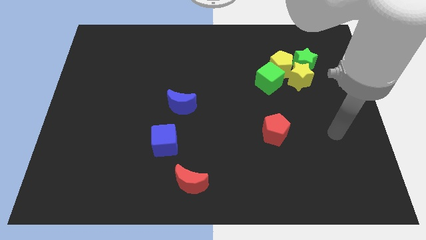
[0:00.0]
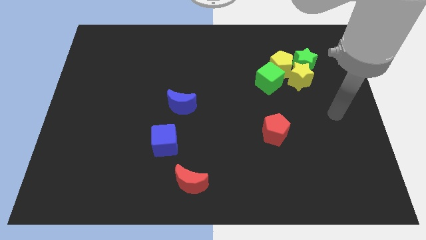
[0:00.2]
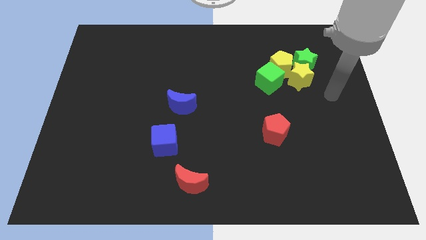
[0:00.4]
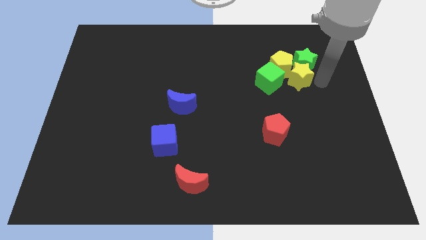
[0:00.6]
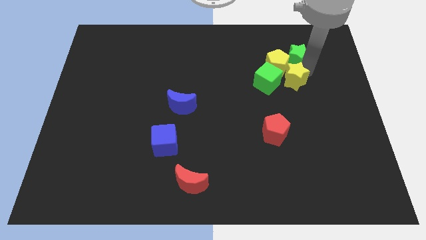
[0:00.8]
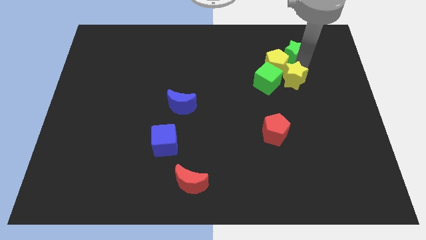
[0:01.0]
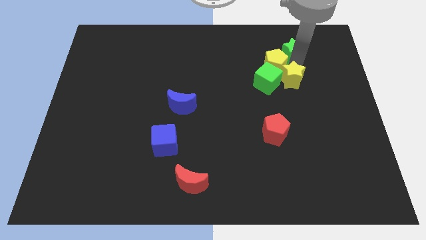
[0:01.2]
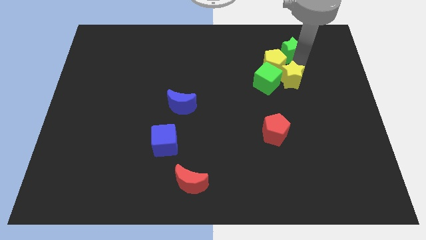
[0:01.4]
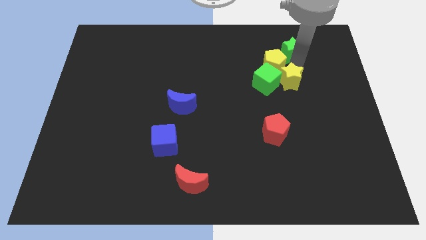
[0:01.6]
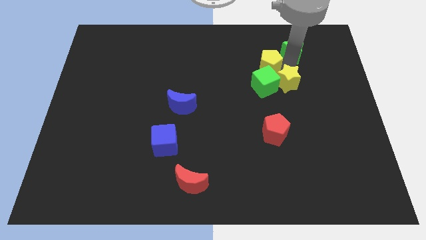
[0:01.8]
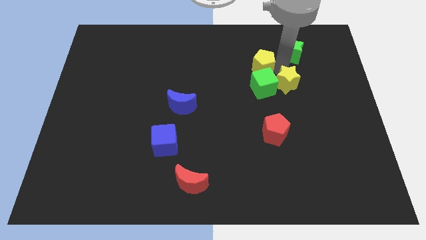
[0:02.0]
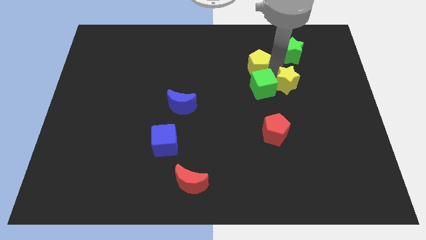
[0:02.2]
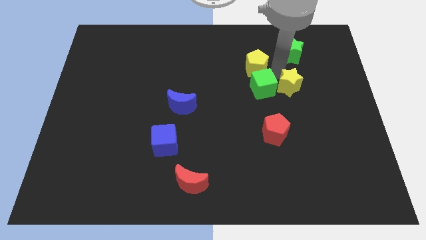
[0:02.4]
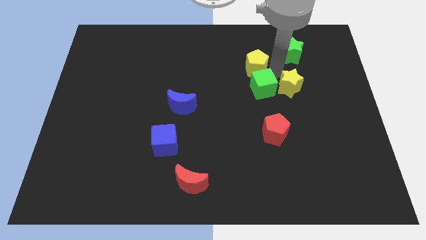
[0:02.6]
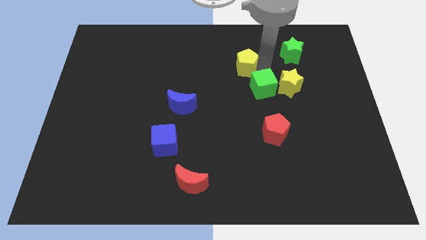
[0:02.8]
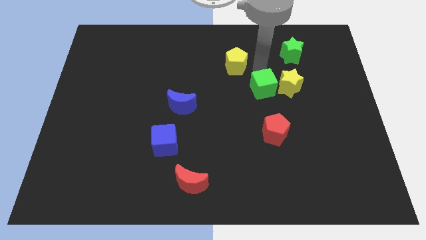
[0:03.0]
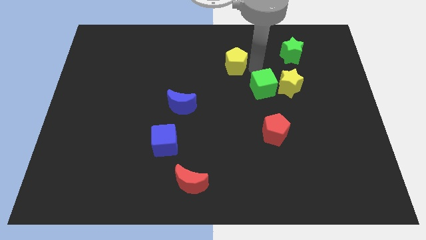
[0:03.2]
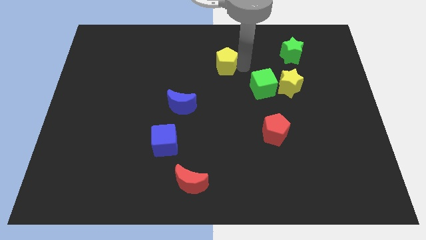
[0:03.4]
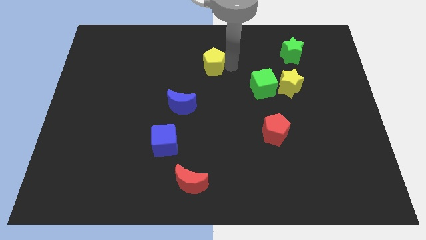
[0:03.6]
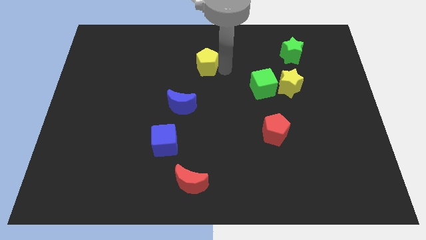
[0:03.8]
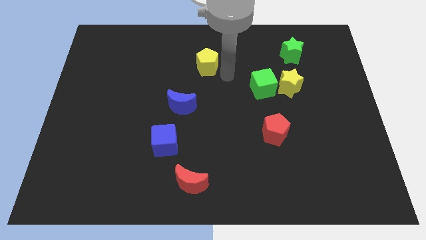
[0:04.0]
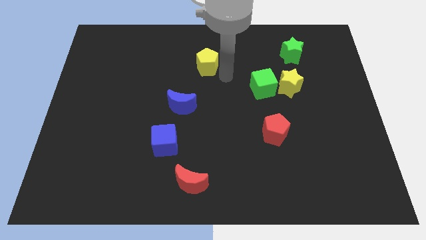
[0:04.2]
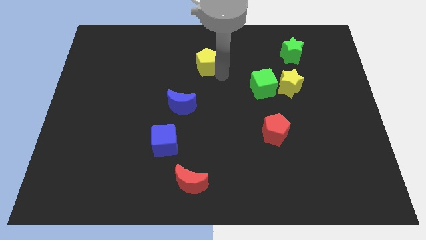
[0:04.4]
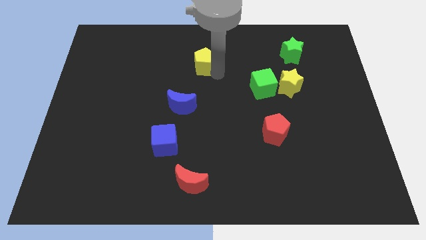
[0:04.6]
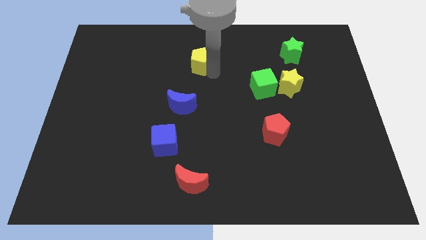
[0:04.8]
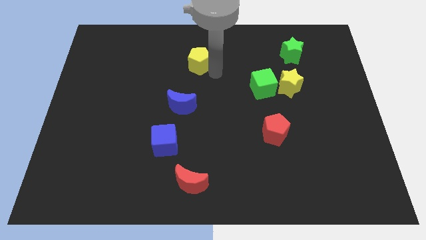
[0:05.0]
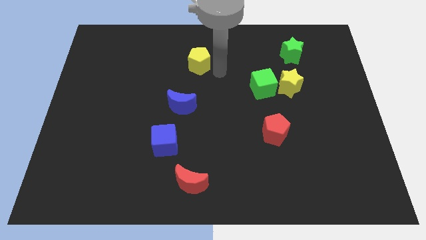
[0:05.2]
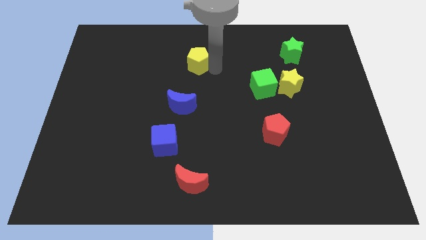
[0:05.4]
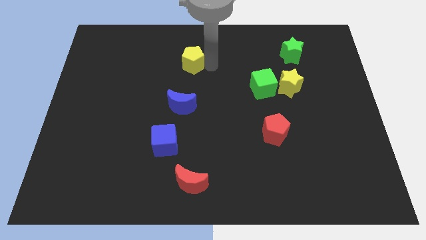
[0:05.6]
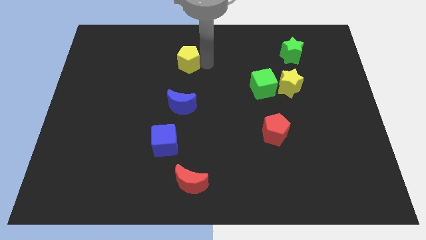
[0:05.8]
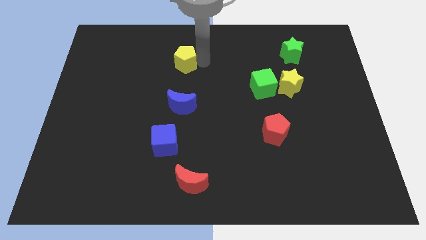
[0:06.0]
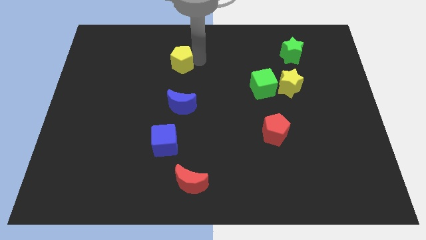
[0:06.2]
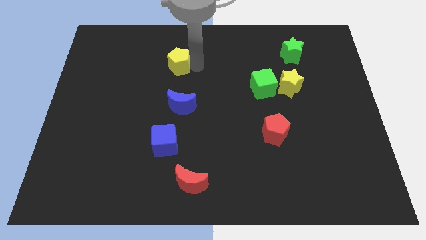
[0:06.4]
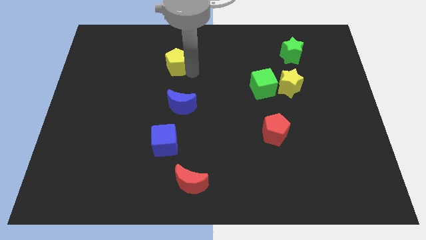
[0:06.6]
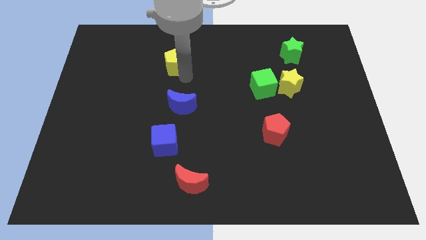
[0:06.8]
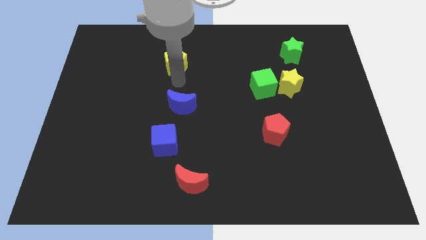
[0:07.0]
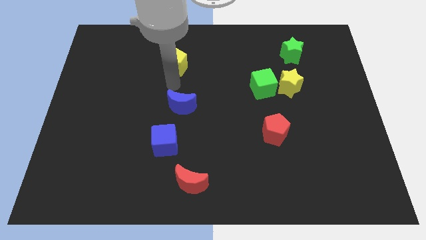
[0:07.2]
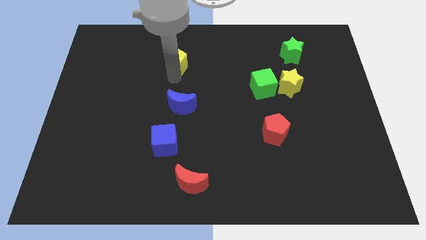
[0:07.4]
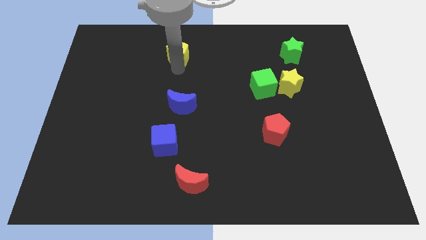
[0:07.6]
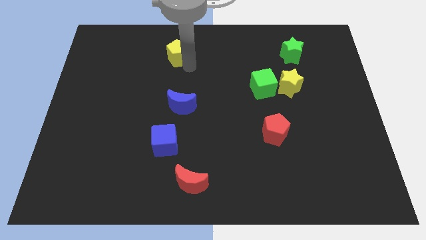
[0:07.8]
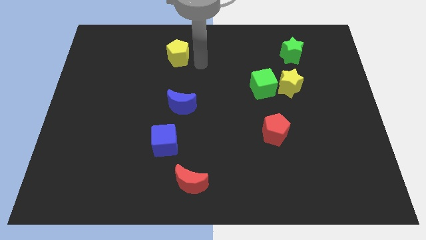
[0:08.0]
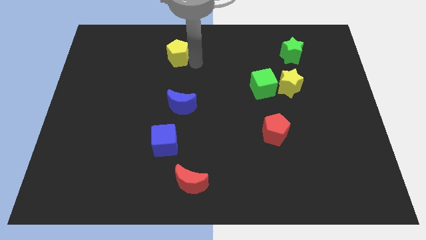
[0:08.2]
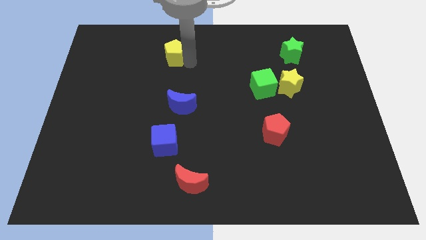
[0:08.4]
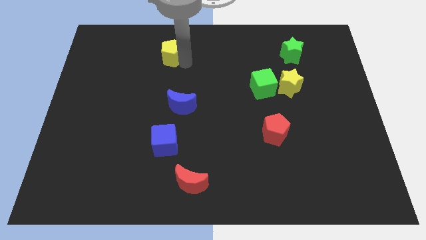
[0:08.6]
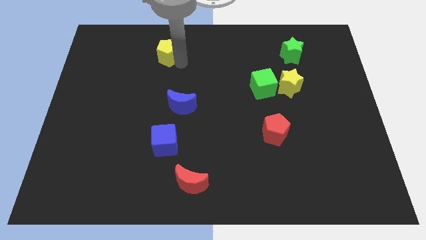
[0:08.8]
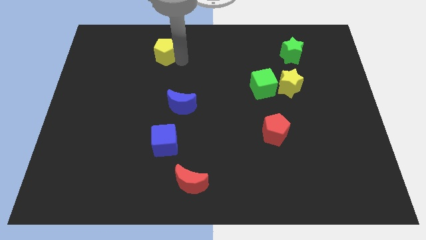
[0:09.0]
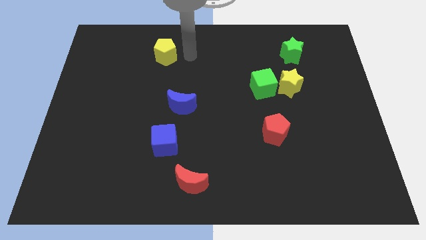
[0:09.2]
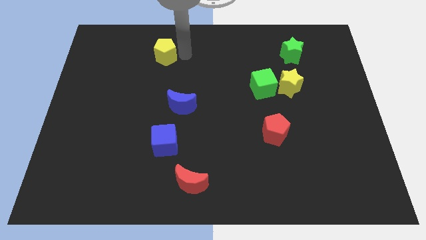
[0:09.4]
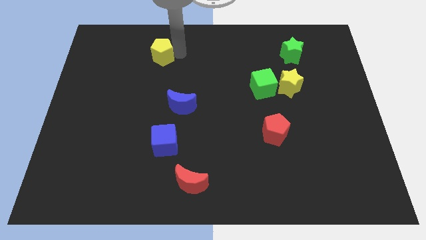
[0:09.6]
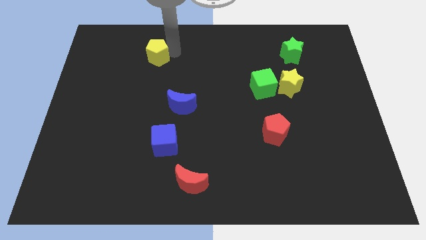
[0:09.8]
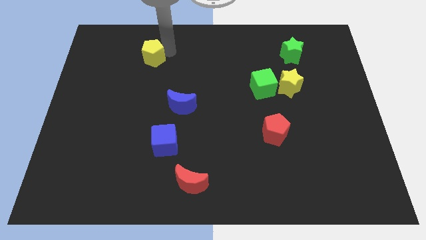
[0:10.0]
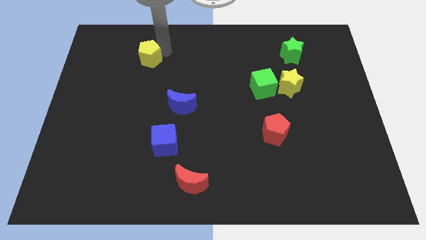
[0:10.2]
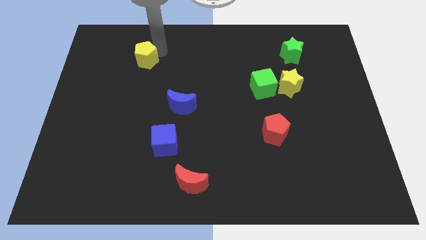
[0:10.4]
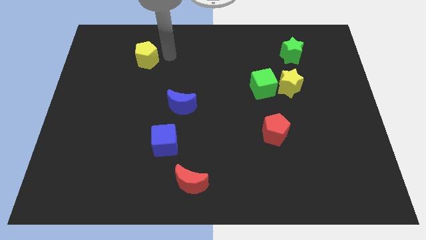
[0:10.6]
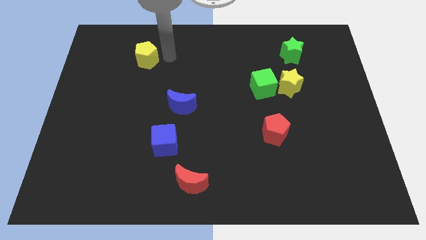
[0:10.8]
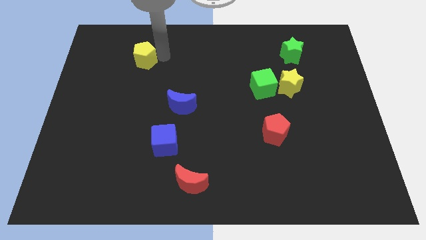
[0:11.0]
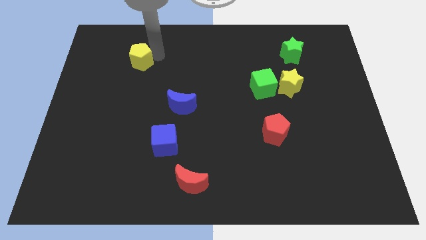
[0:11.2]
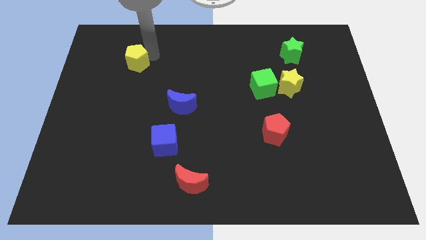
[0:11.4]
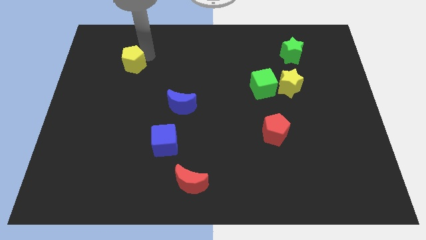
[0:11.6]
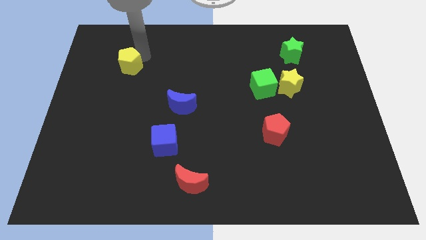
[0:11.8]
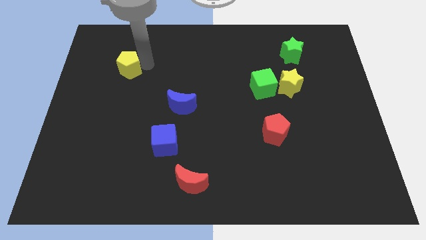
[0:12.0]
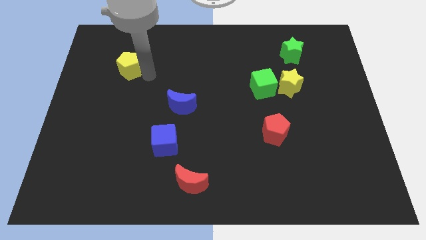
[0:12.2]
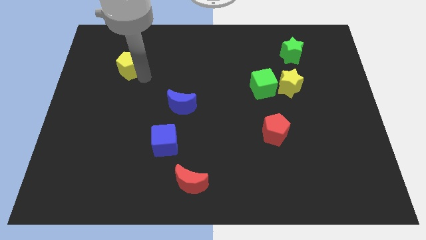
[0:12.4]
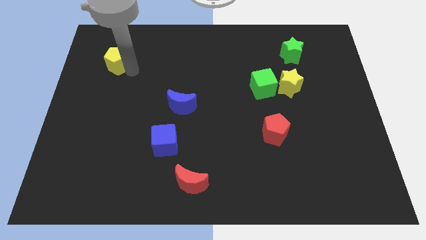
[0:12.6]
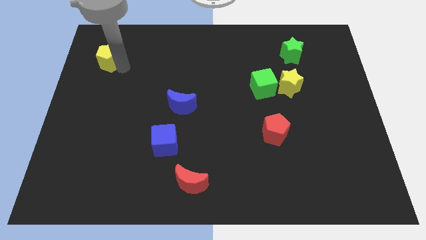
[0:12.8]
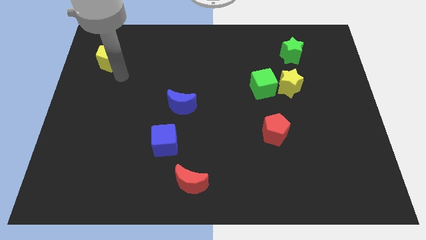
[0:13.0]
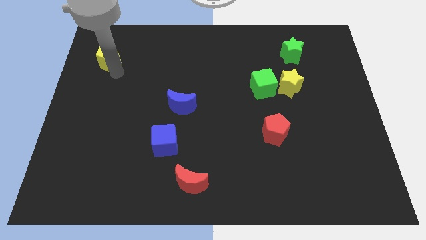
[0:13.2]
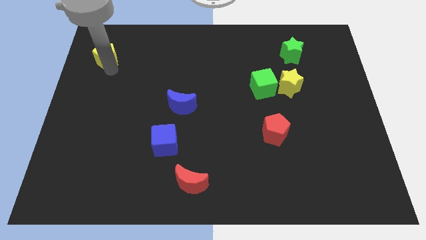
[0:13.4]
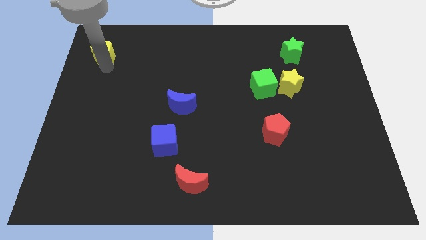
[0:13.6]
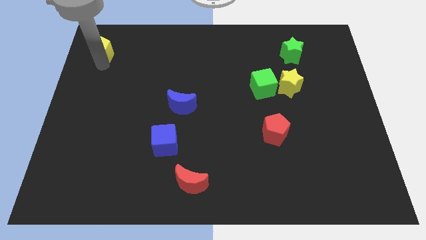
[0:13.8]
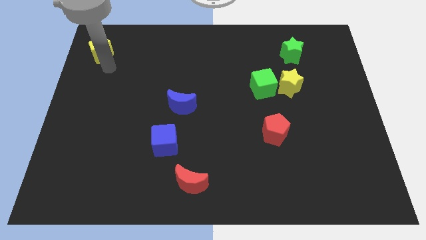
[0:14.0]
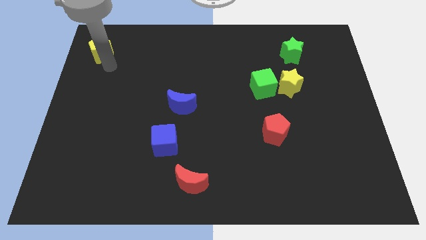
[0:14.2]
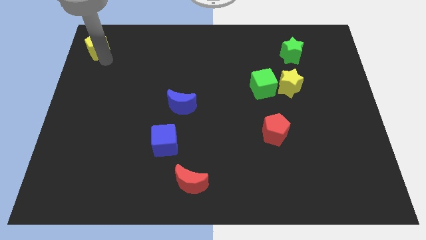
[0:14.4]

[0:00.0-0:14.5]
put the yellow pentagon to the upper left corner
